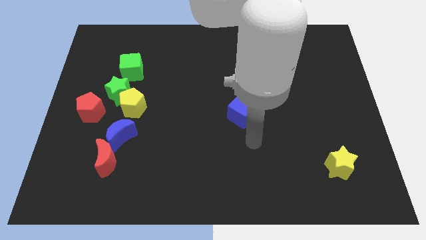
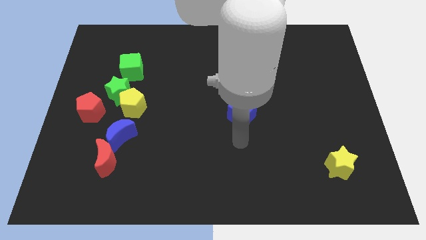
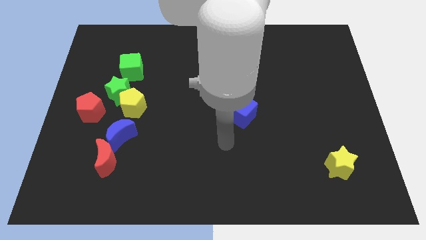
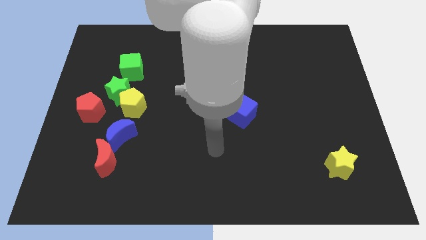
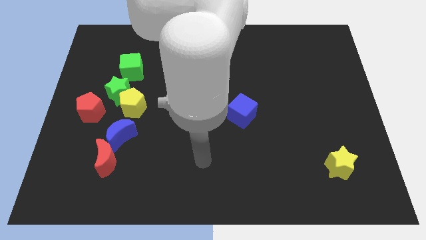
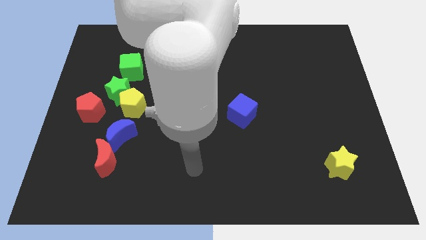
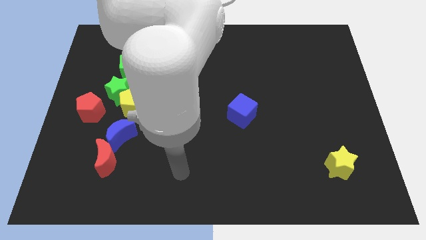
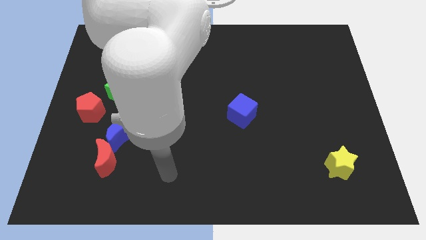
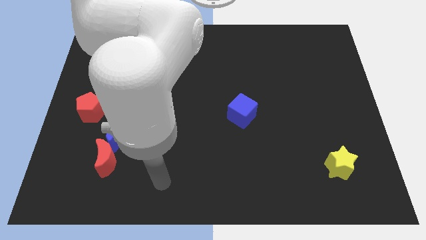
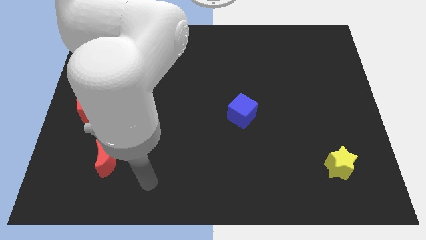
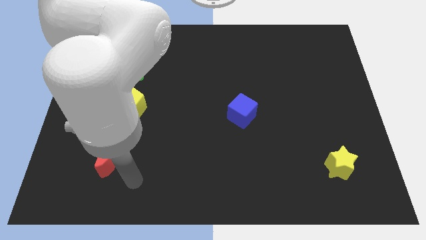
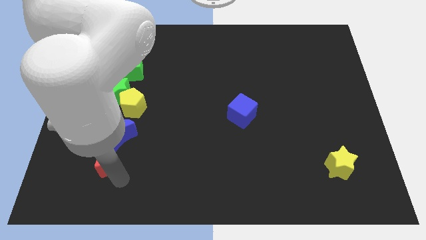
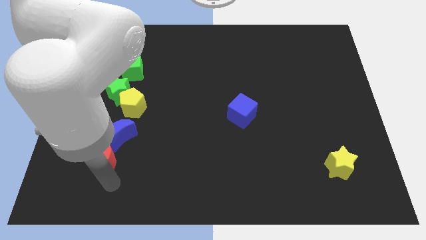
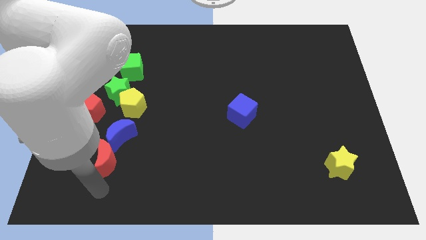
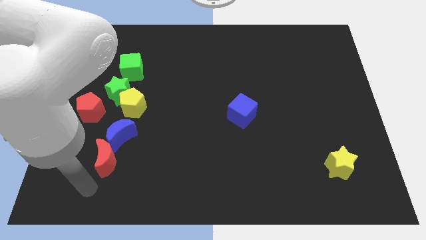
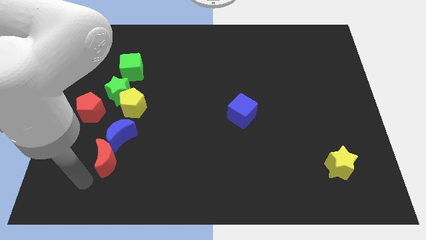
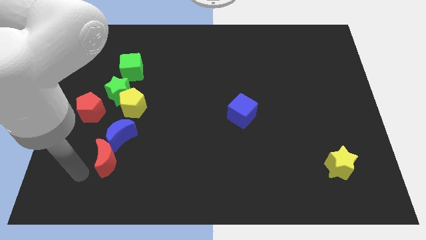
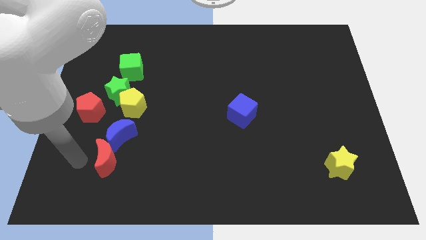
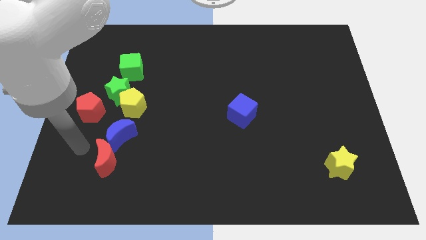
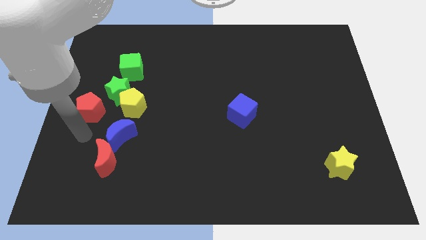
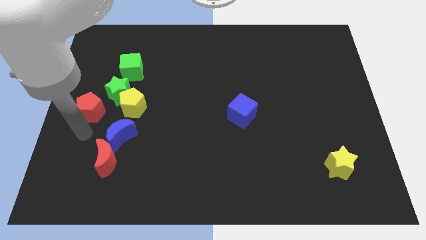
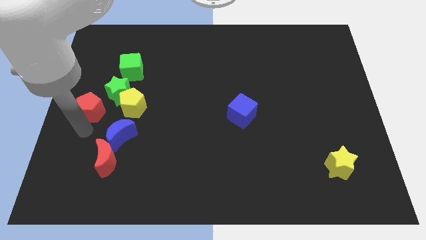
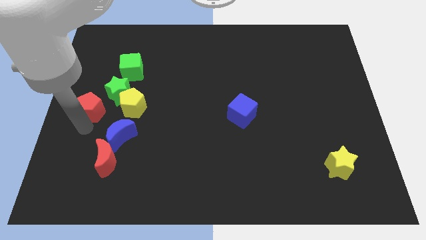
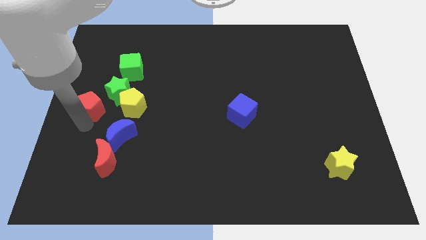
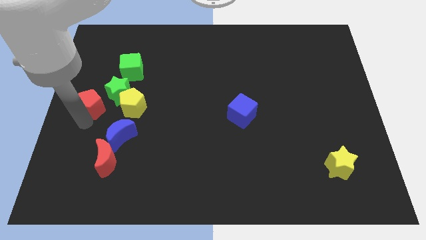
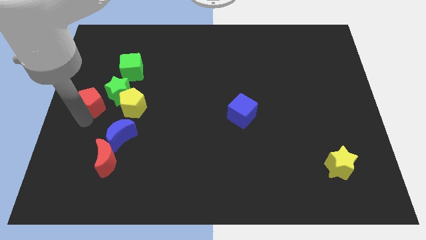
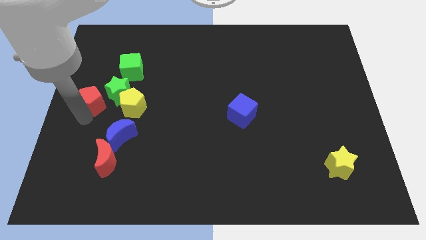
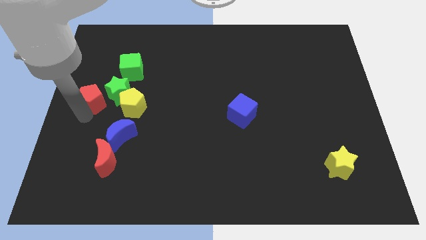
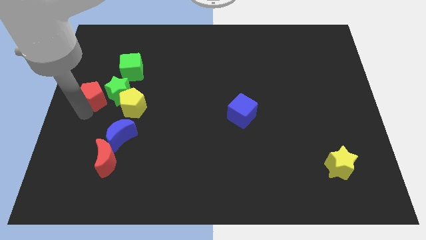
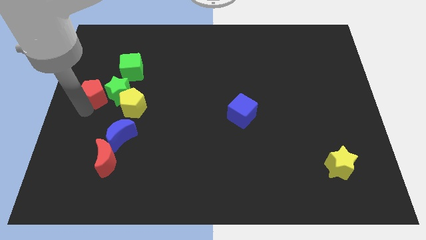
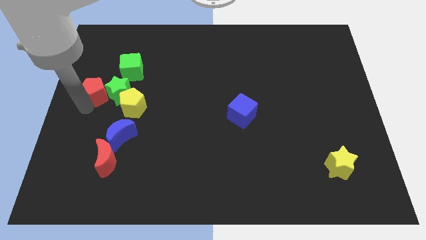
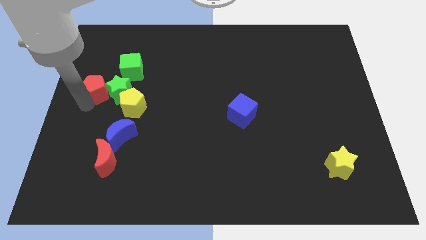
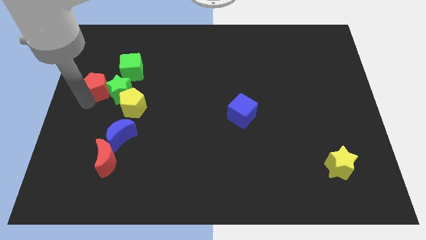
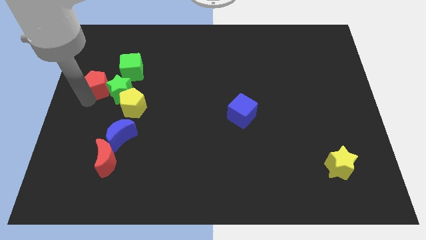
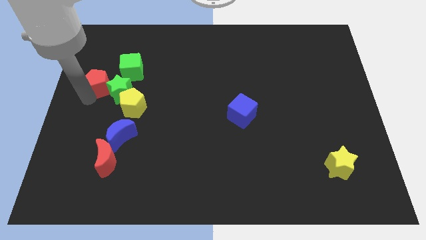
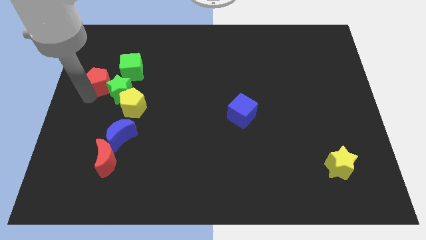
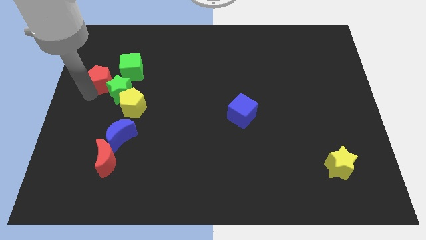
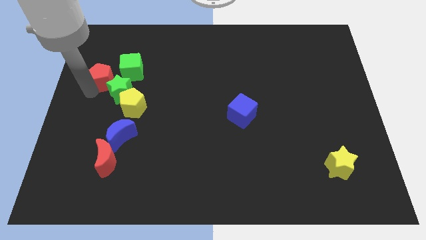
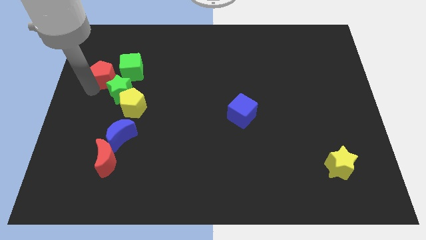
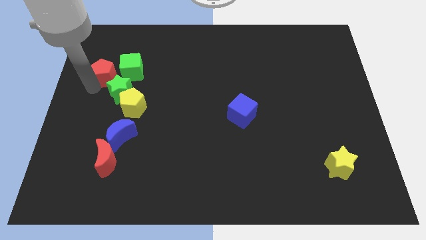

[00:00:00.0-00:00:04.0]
slightly slide the red pentagon up and right diagonally

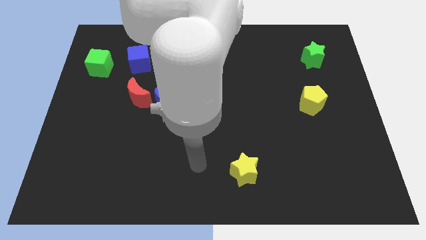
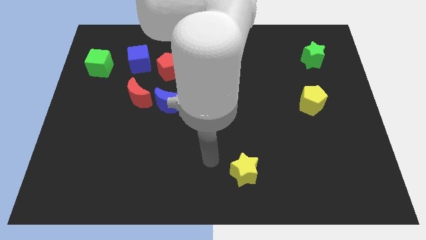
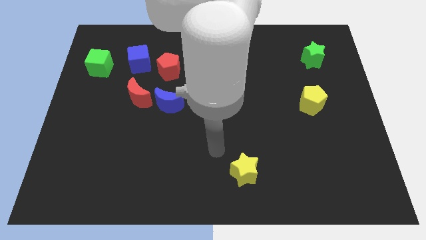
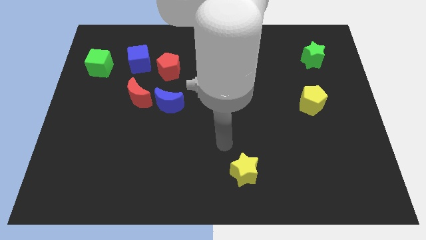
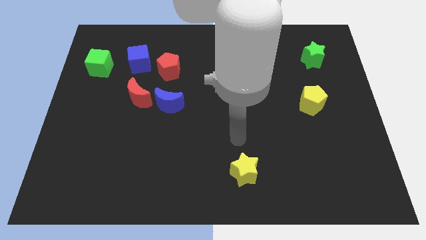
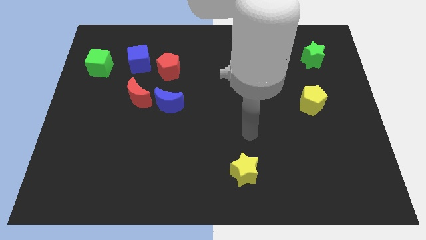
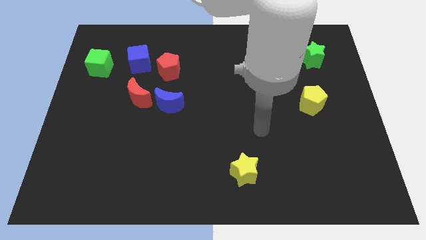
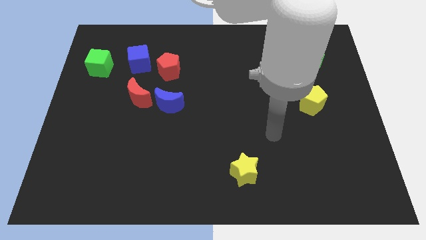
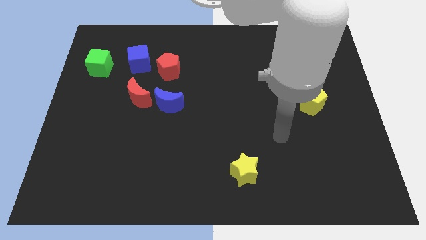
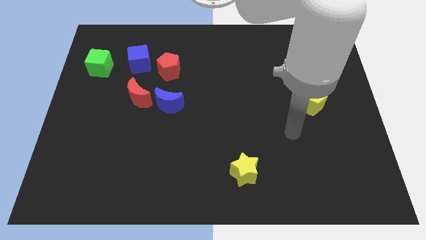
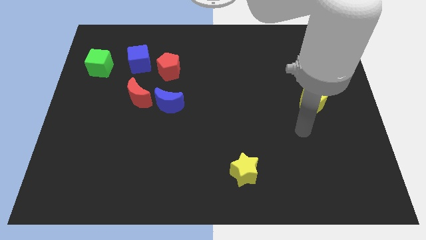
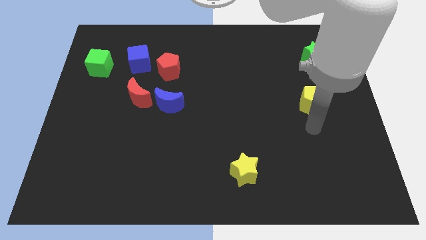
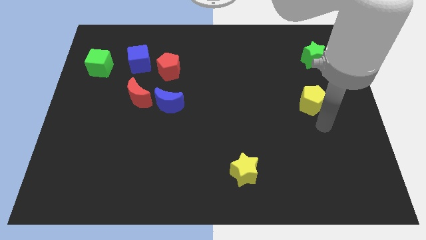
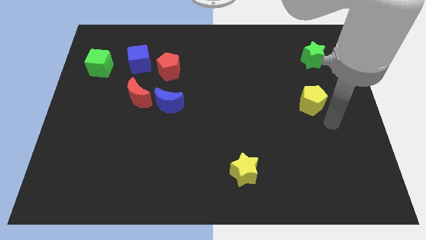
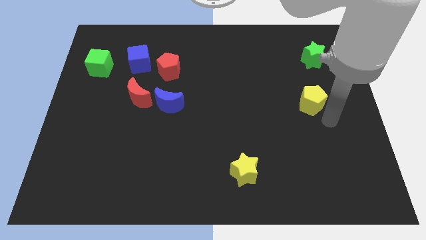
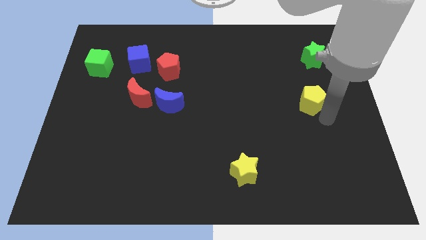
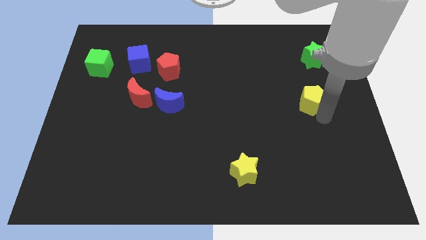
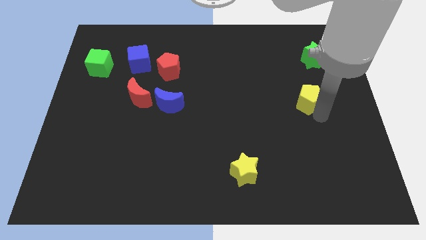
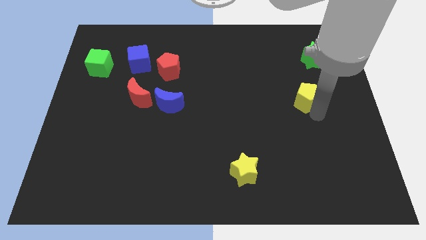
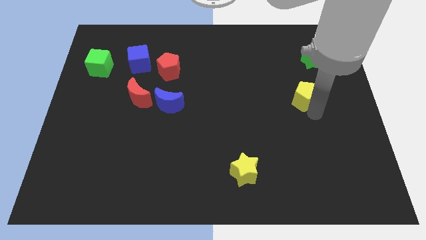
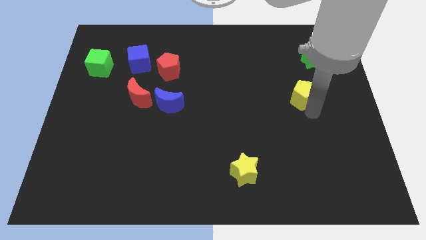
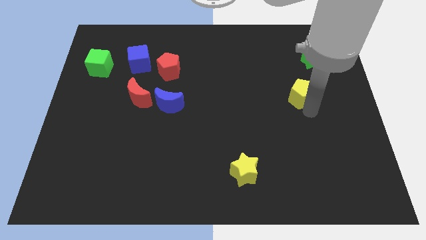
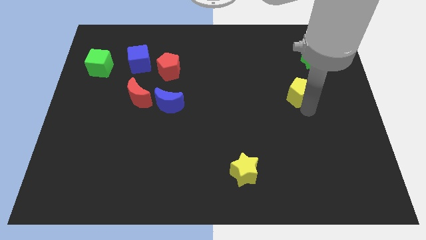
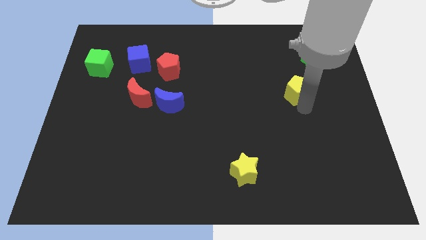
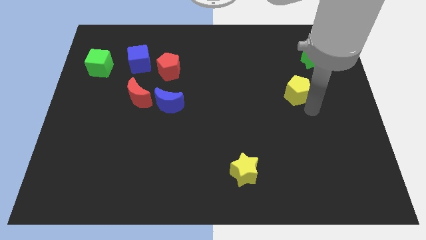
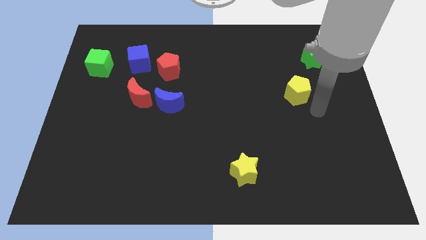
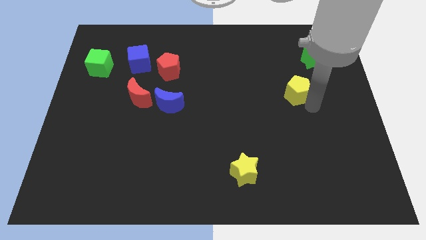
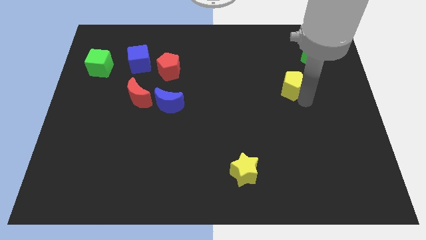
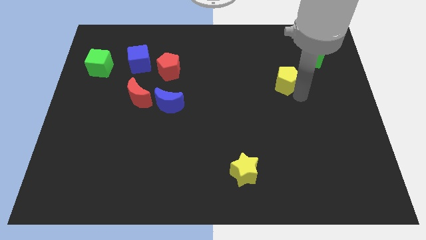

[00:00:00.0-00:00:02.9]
push the yellow pentagon a little up and left diagonally

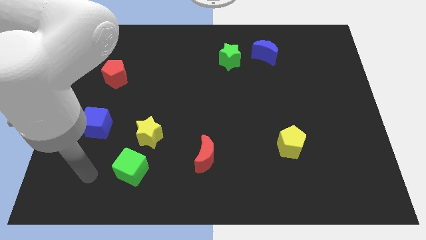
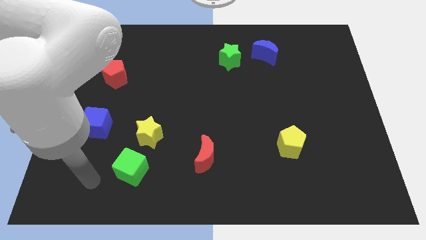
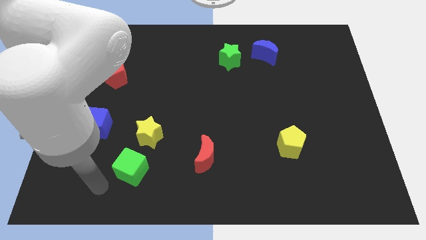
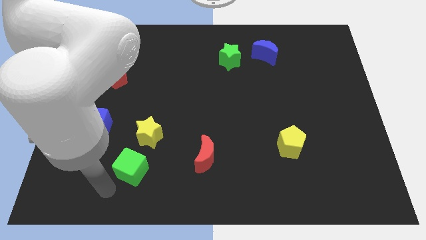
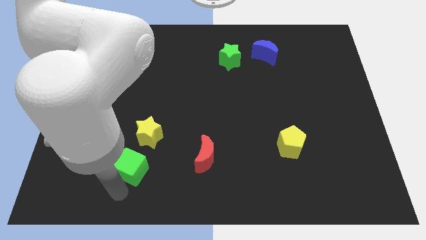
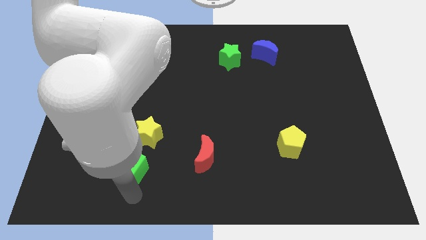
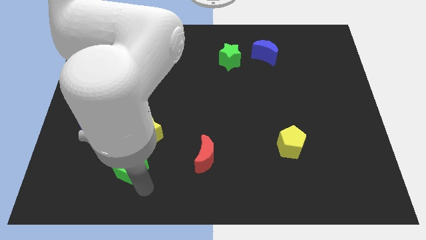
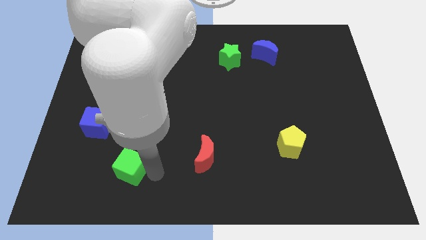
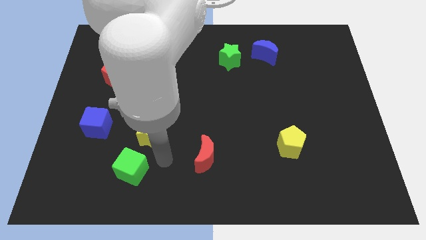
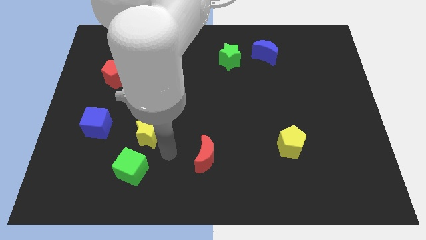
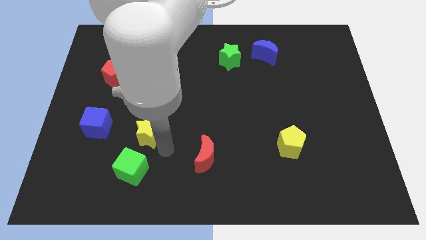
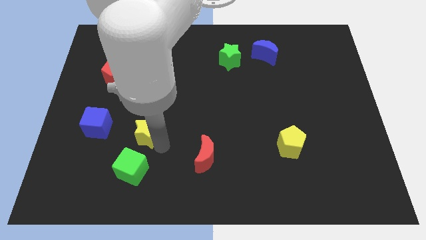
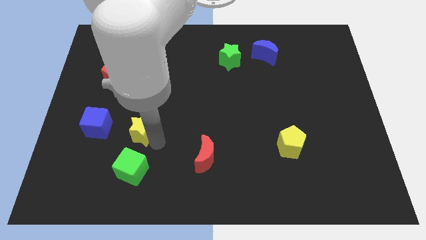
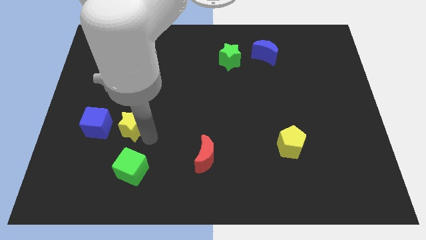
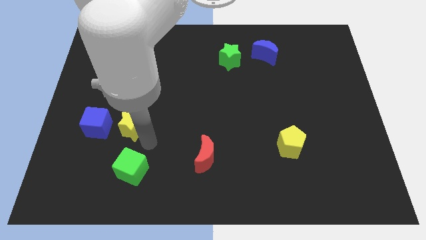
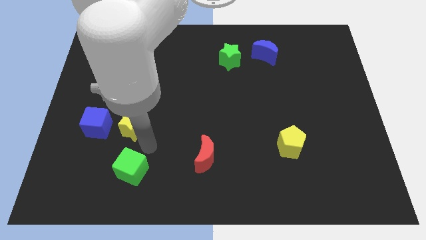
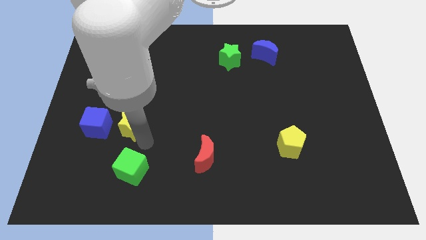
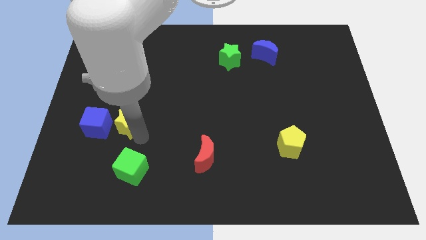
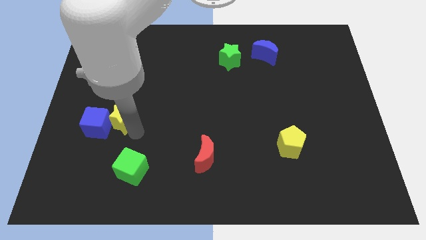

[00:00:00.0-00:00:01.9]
move the yellow star a little bit upwards and then to the left
